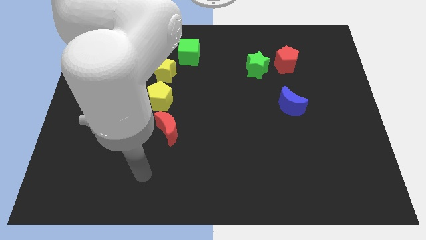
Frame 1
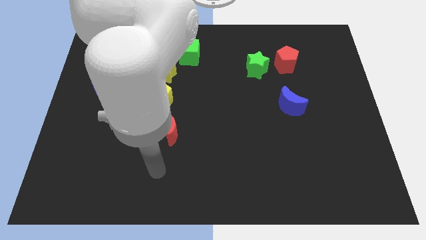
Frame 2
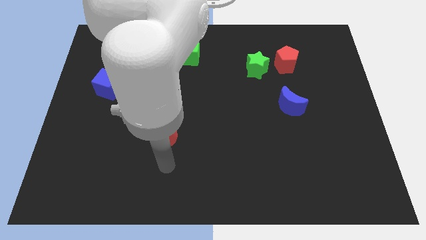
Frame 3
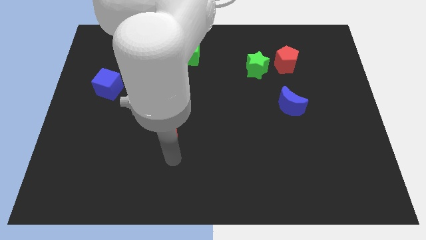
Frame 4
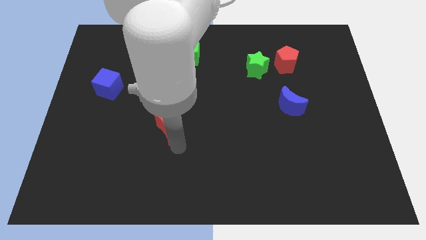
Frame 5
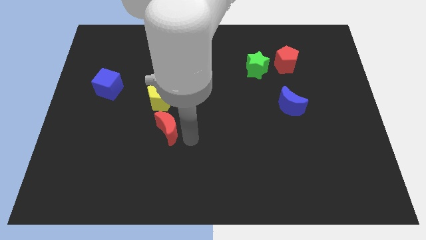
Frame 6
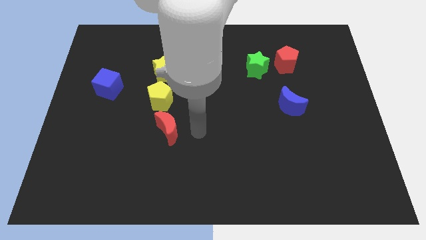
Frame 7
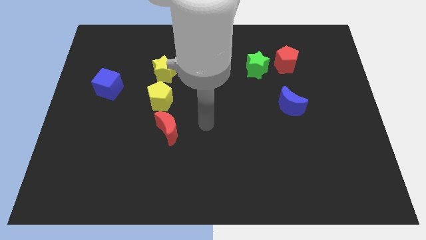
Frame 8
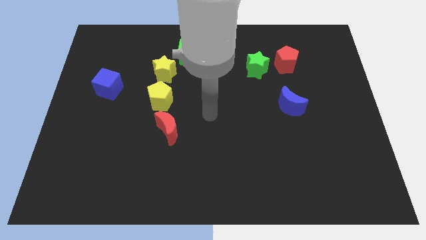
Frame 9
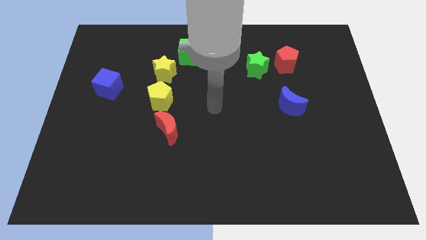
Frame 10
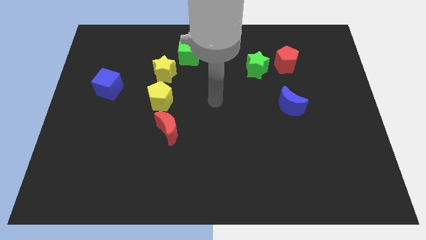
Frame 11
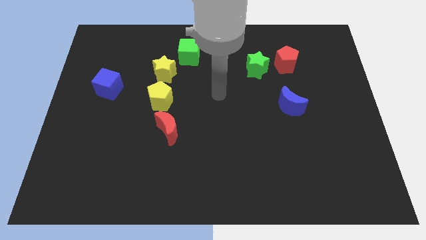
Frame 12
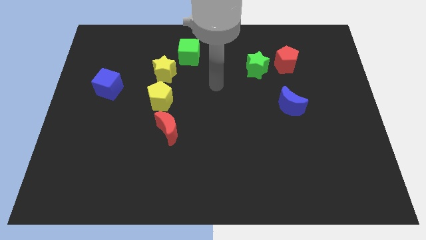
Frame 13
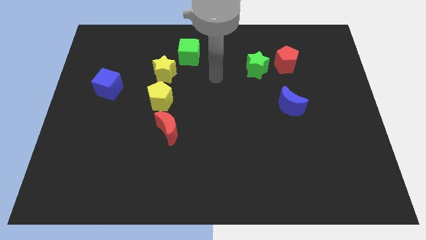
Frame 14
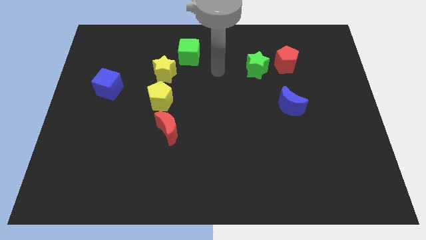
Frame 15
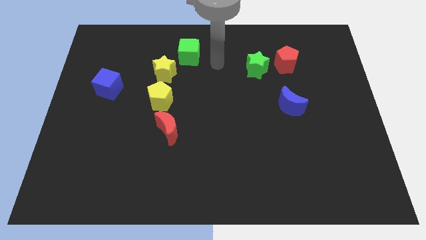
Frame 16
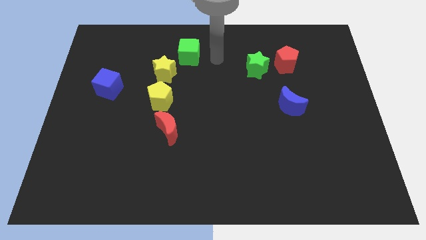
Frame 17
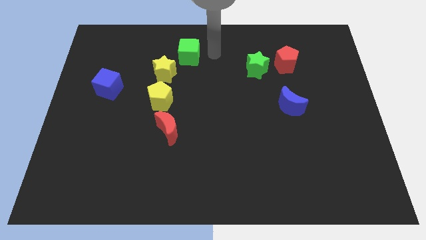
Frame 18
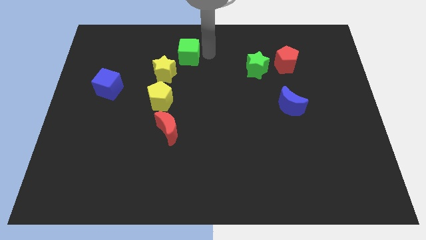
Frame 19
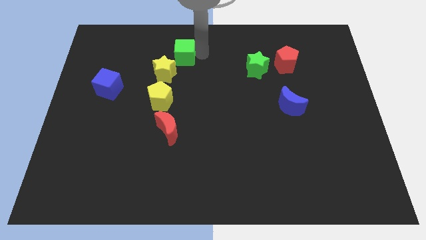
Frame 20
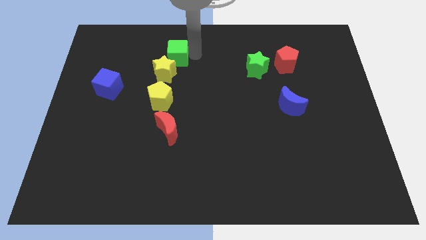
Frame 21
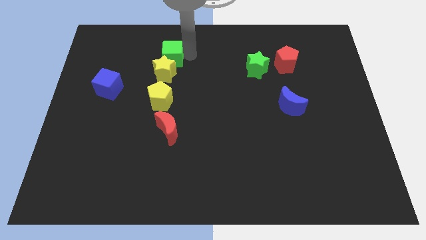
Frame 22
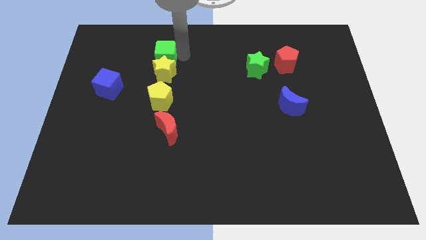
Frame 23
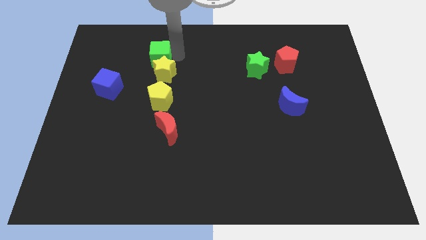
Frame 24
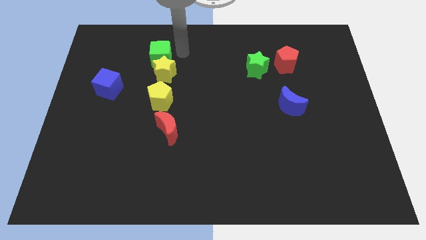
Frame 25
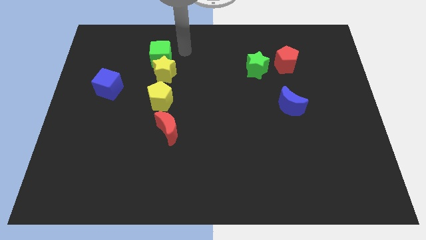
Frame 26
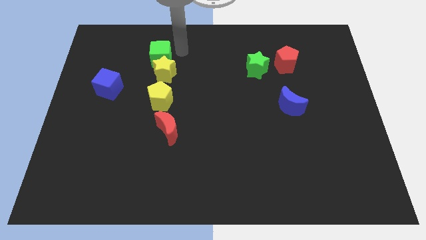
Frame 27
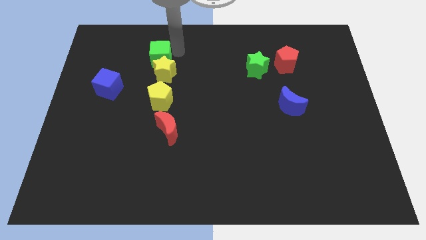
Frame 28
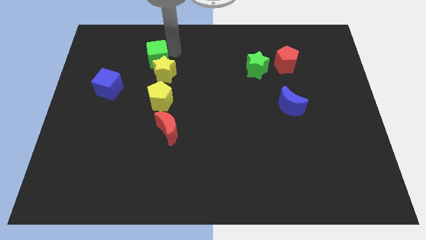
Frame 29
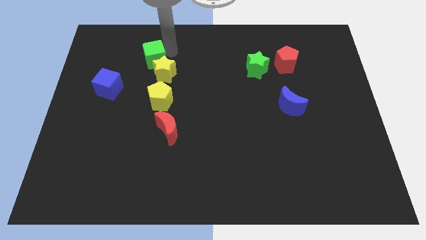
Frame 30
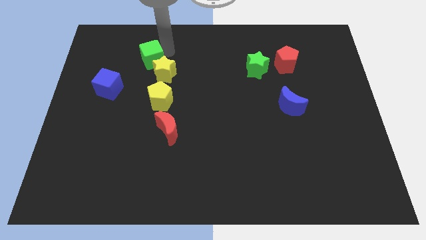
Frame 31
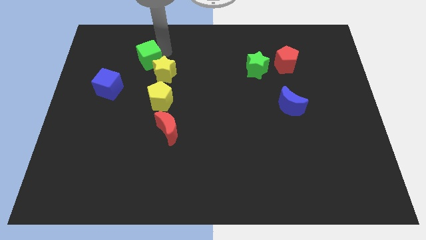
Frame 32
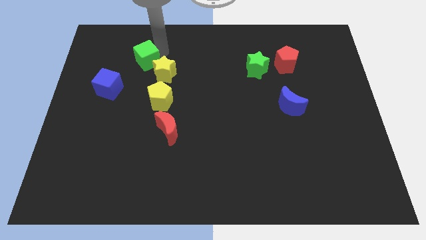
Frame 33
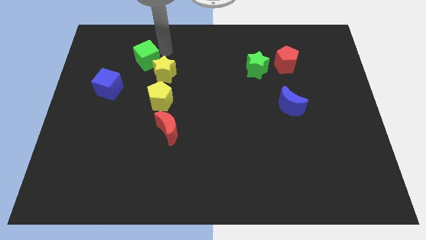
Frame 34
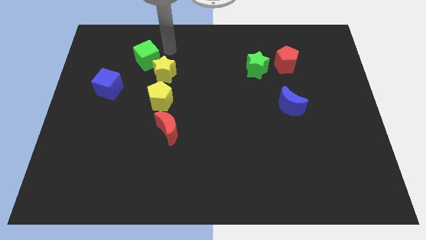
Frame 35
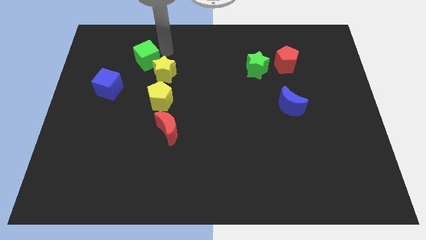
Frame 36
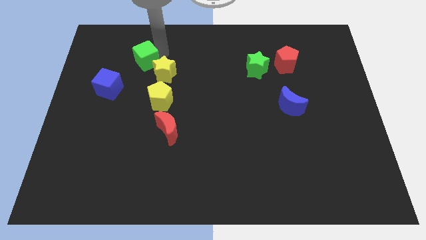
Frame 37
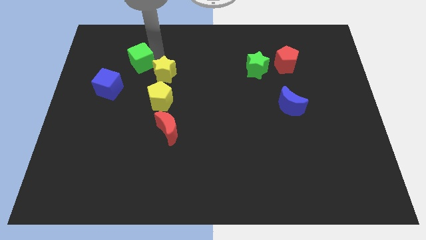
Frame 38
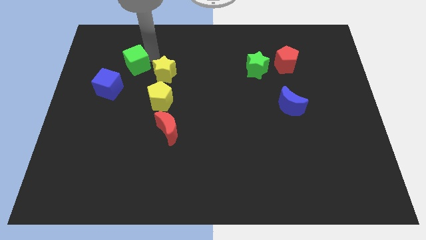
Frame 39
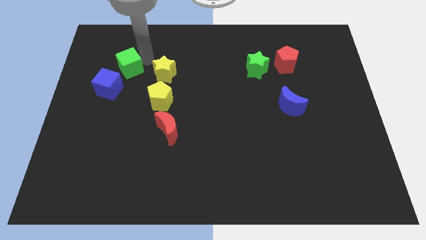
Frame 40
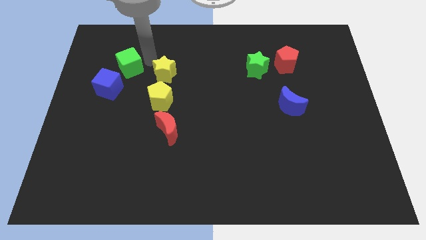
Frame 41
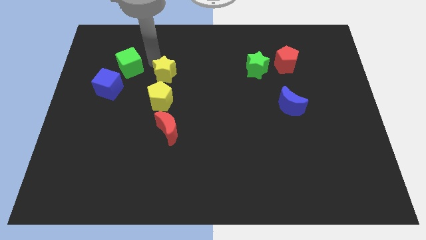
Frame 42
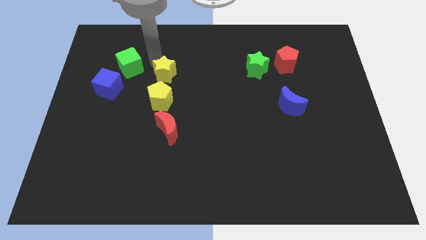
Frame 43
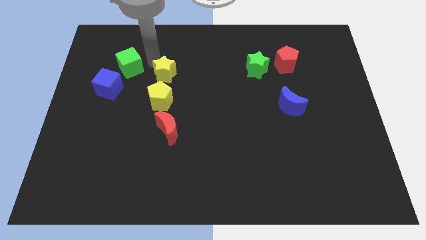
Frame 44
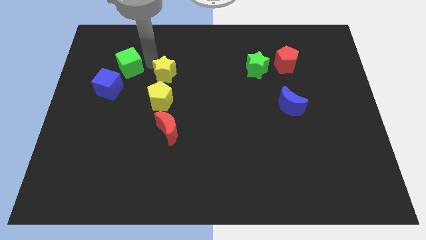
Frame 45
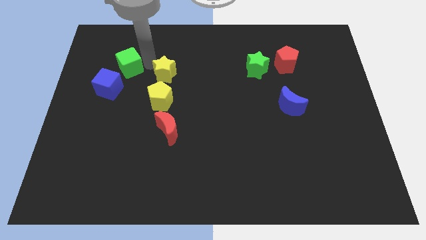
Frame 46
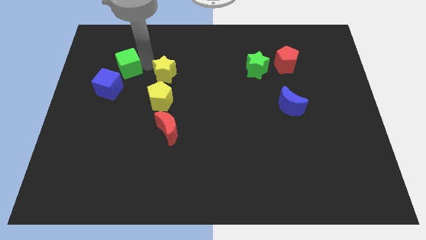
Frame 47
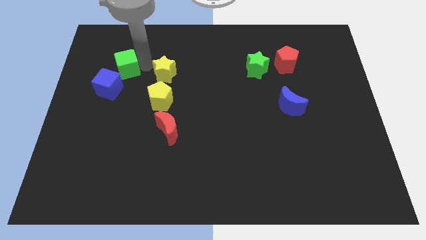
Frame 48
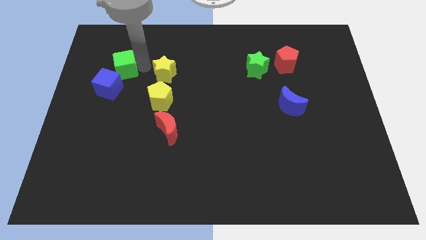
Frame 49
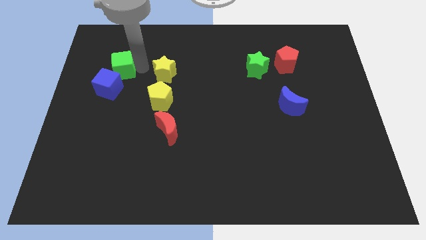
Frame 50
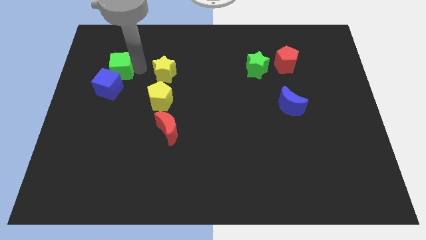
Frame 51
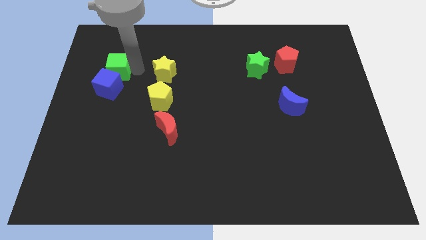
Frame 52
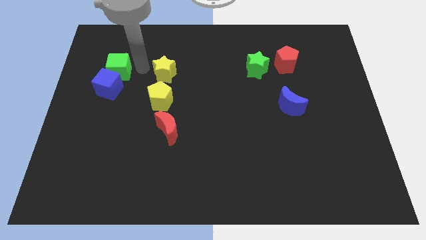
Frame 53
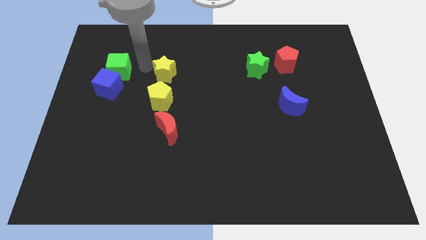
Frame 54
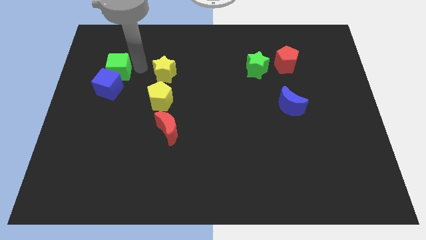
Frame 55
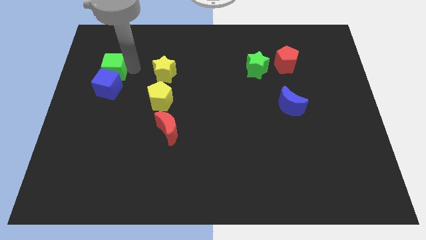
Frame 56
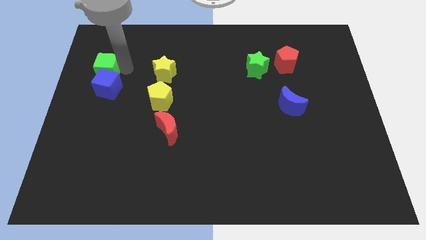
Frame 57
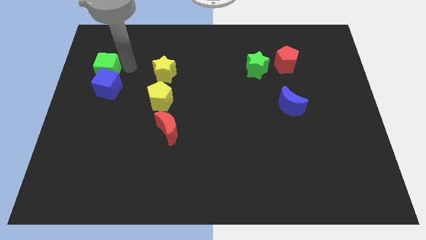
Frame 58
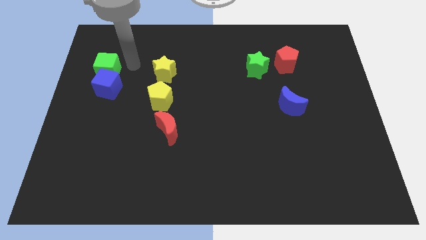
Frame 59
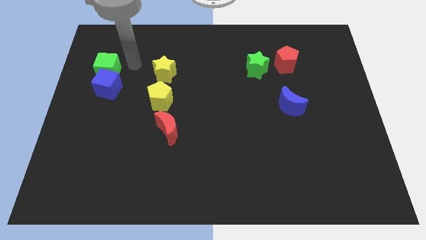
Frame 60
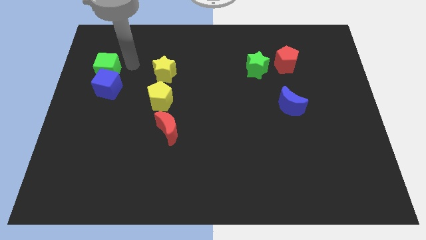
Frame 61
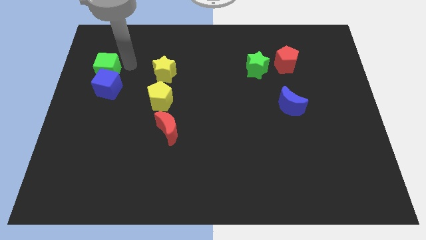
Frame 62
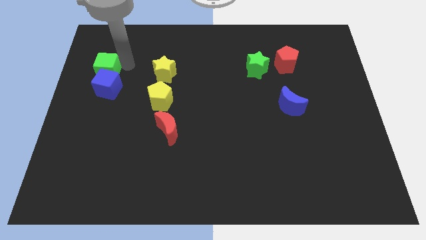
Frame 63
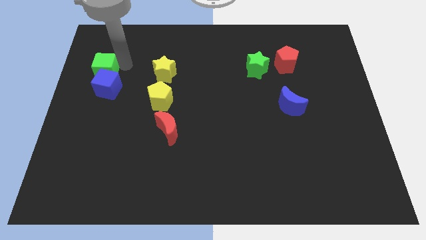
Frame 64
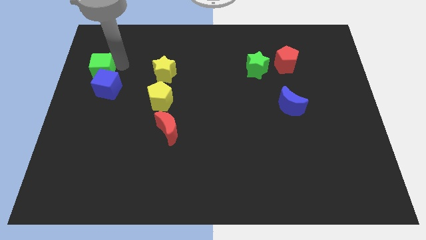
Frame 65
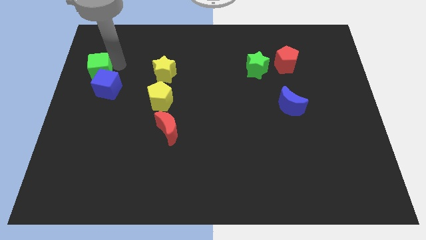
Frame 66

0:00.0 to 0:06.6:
move the green cube to the left side

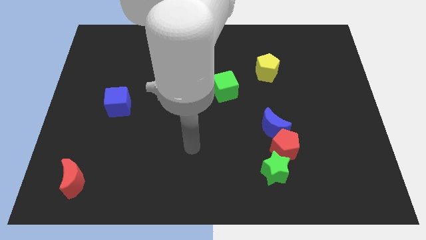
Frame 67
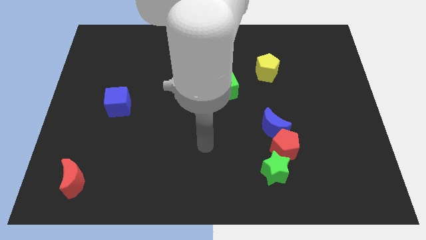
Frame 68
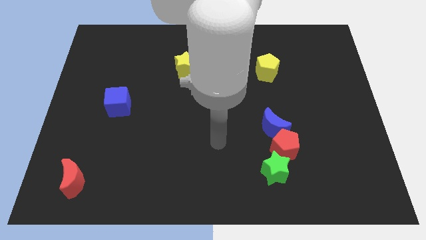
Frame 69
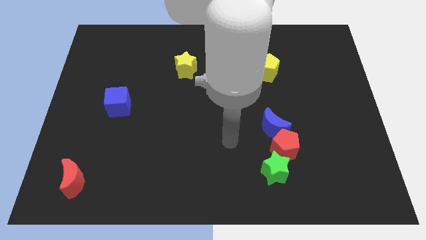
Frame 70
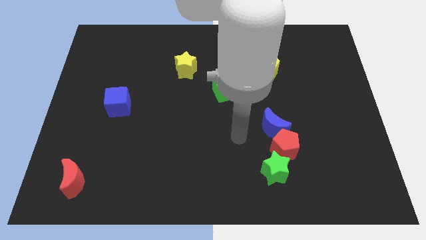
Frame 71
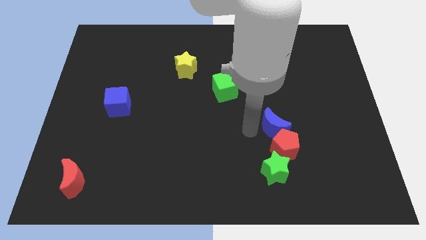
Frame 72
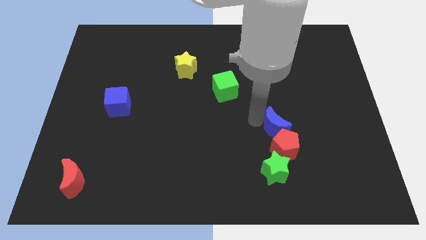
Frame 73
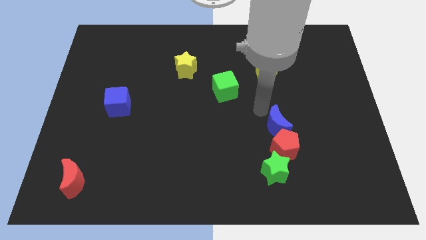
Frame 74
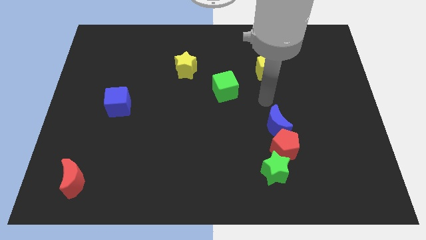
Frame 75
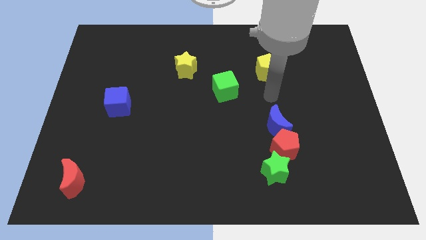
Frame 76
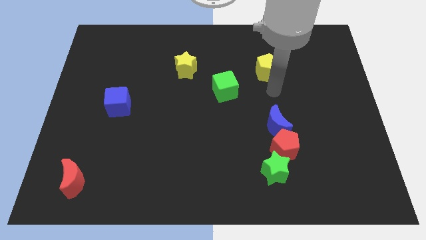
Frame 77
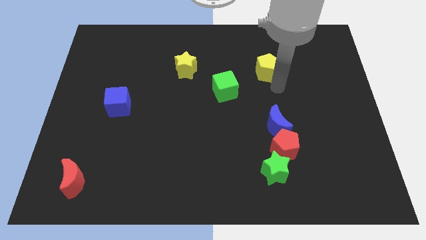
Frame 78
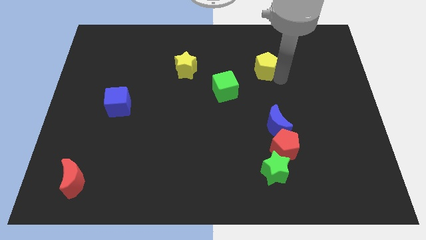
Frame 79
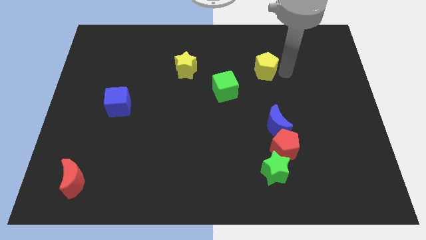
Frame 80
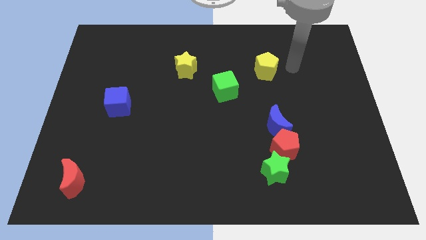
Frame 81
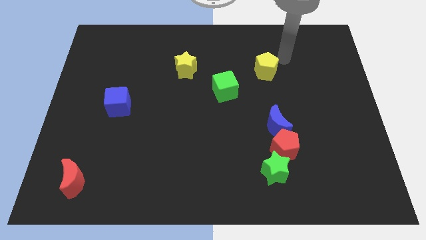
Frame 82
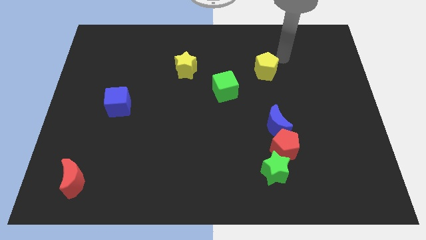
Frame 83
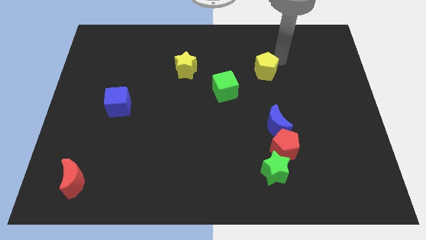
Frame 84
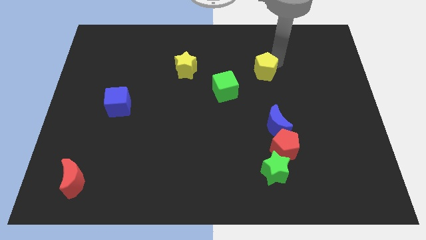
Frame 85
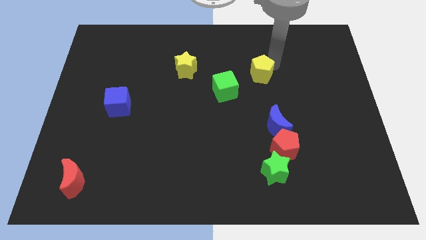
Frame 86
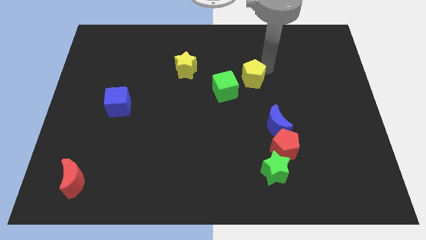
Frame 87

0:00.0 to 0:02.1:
move the yellow pentagon to the center
